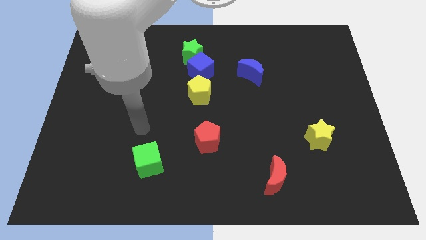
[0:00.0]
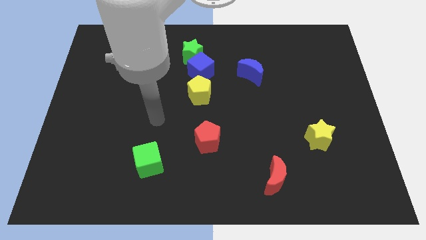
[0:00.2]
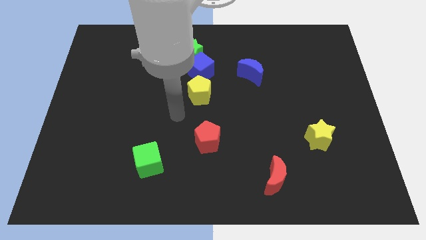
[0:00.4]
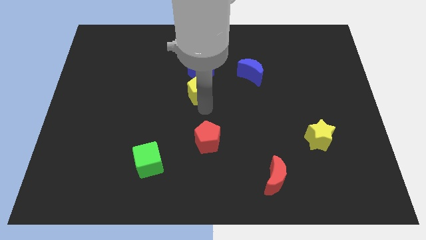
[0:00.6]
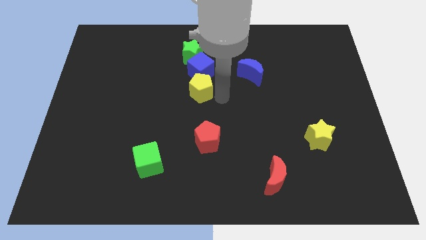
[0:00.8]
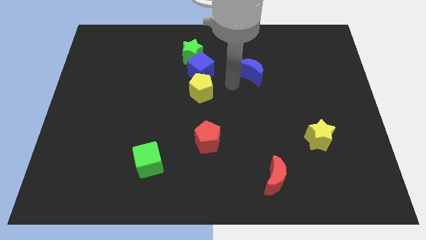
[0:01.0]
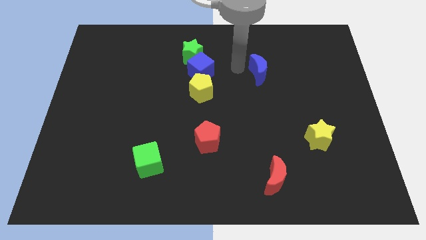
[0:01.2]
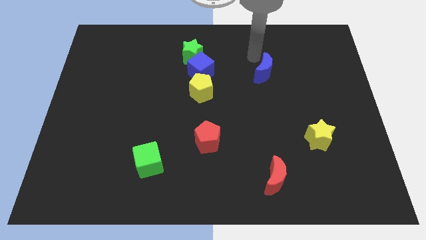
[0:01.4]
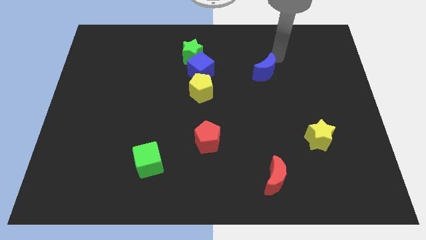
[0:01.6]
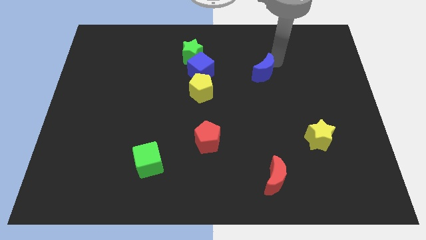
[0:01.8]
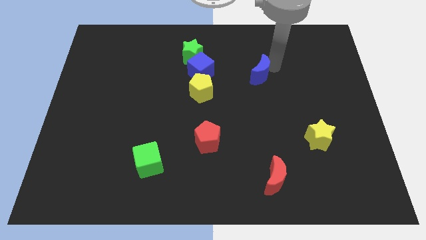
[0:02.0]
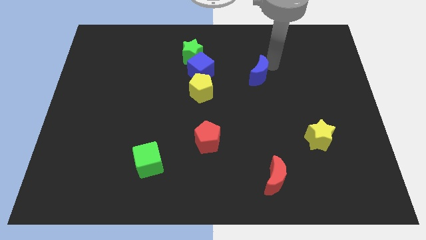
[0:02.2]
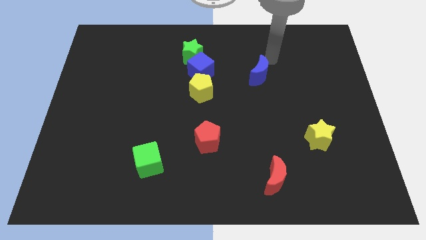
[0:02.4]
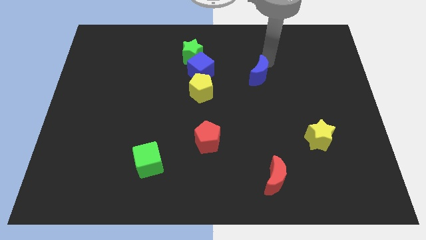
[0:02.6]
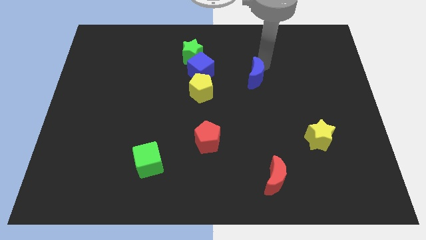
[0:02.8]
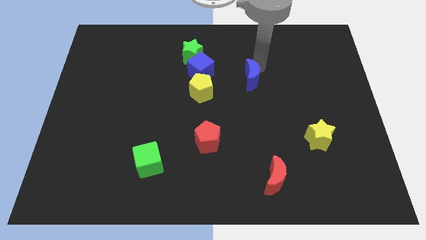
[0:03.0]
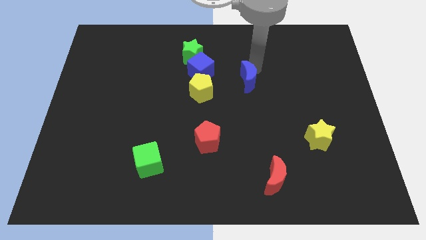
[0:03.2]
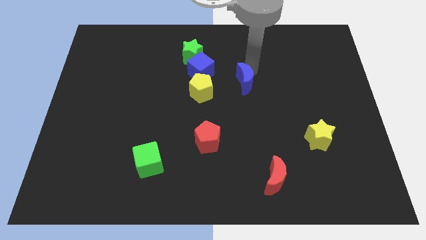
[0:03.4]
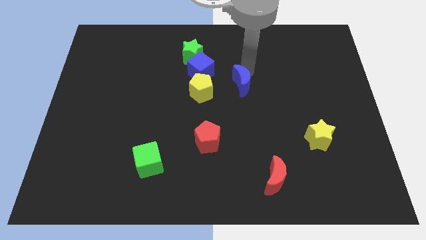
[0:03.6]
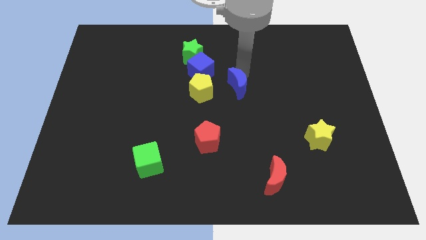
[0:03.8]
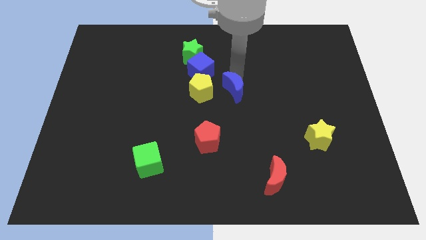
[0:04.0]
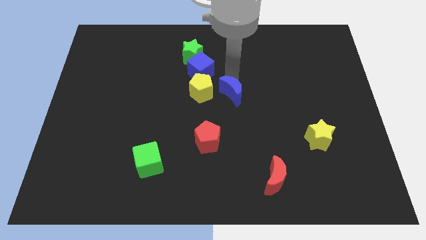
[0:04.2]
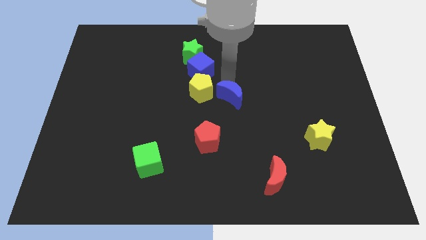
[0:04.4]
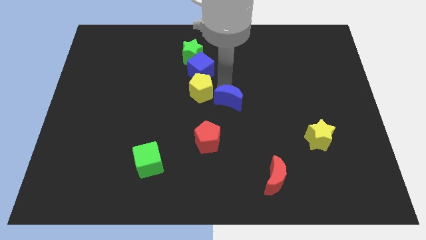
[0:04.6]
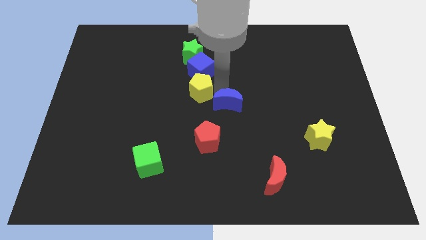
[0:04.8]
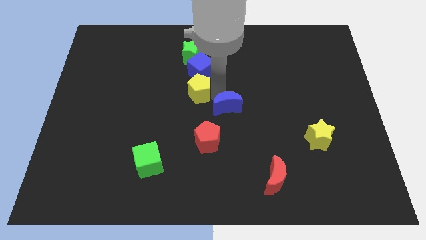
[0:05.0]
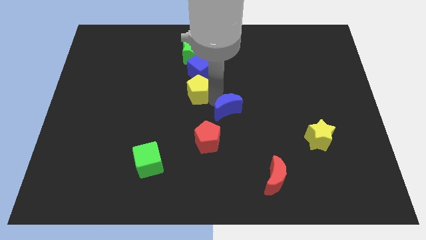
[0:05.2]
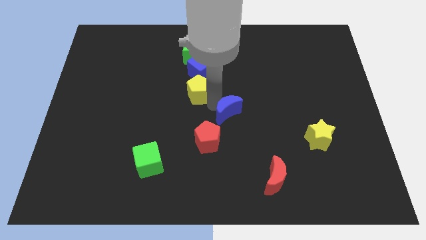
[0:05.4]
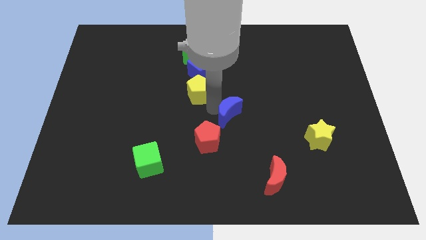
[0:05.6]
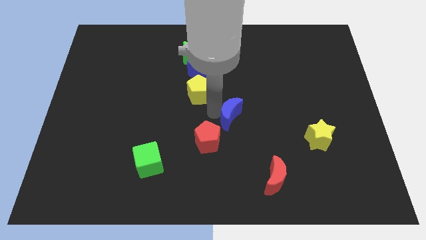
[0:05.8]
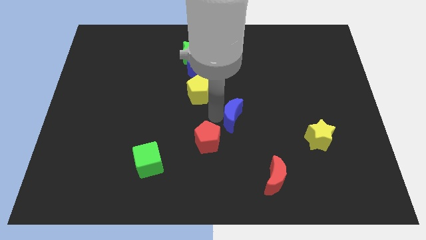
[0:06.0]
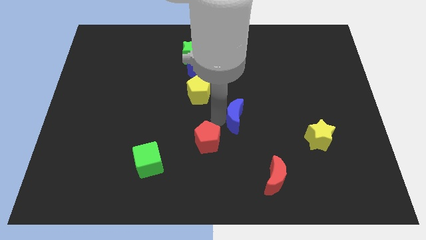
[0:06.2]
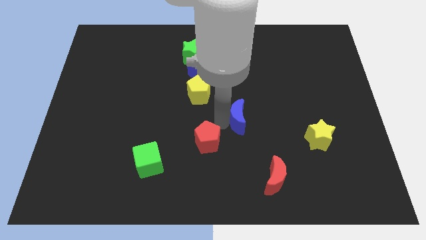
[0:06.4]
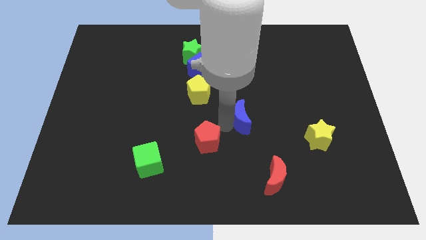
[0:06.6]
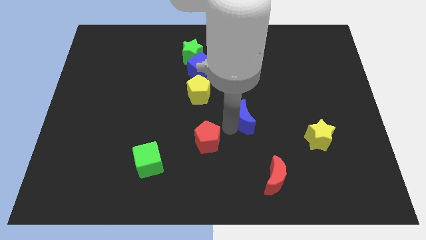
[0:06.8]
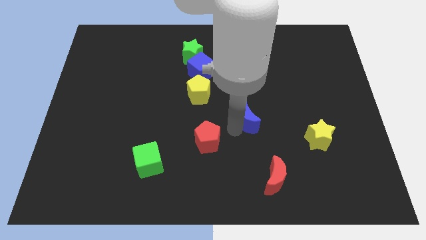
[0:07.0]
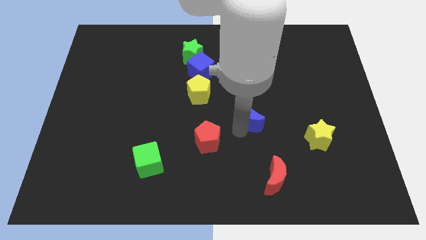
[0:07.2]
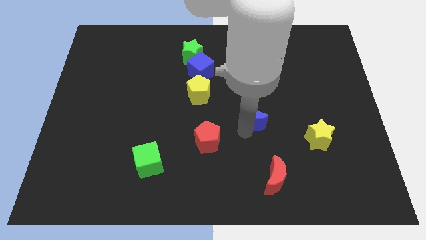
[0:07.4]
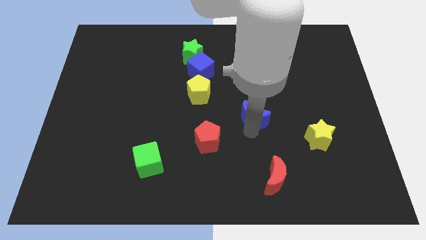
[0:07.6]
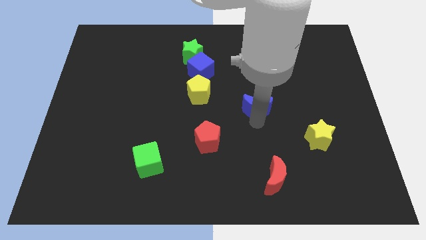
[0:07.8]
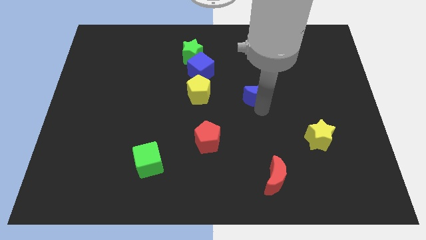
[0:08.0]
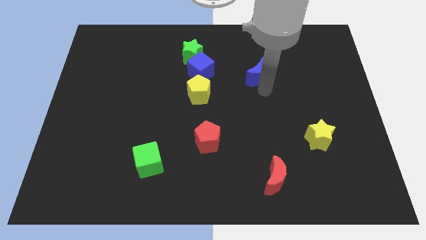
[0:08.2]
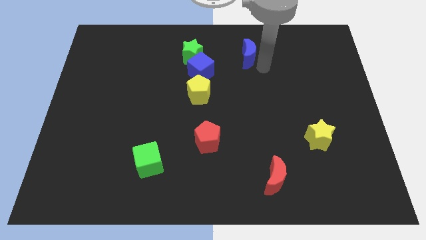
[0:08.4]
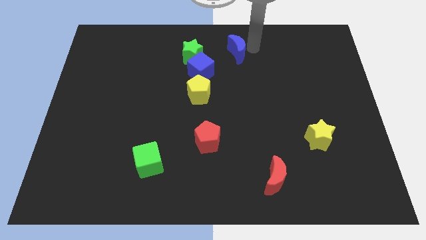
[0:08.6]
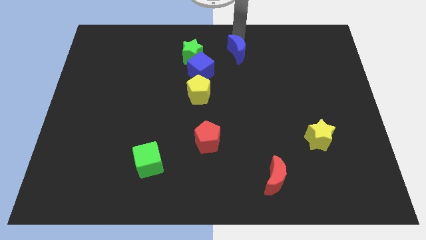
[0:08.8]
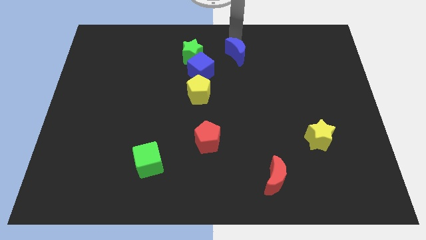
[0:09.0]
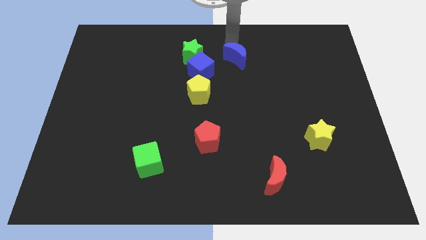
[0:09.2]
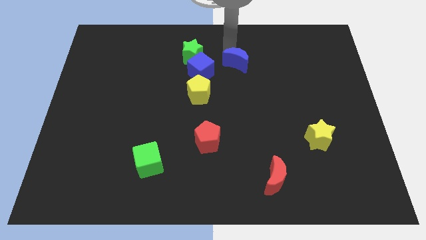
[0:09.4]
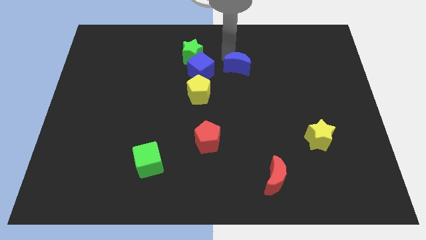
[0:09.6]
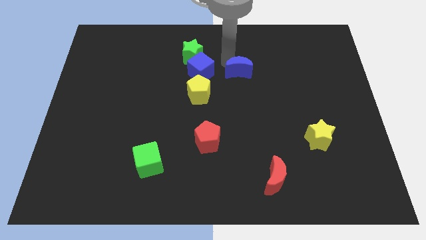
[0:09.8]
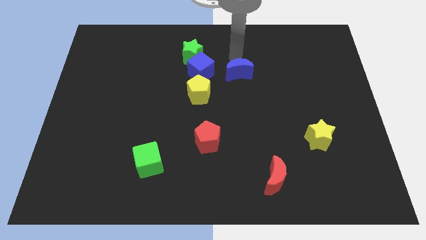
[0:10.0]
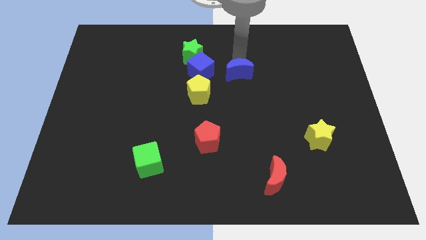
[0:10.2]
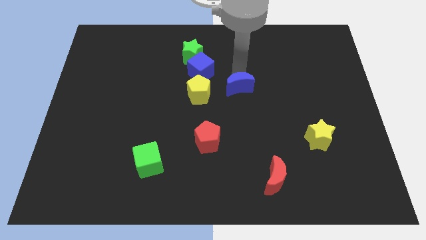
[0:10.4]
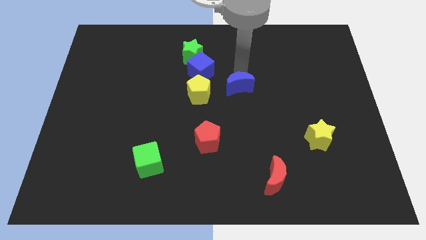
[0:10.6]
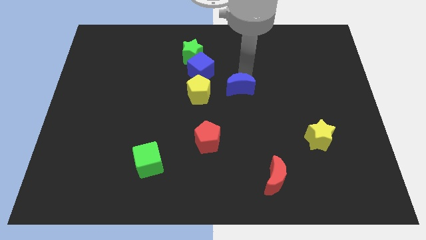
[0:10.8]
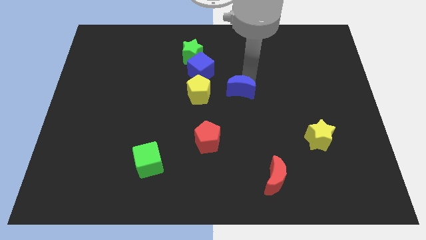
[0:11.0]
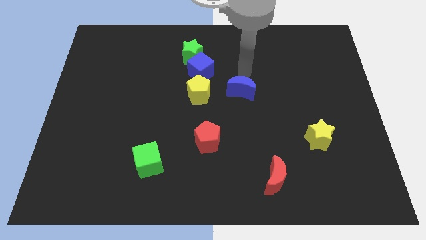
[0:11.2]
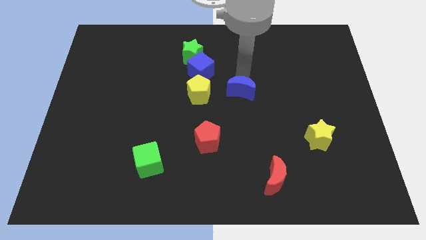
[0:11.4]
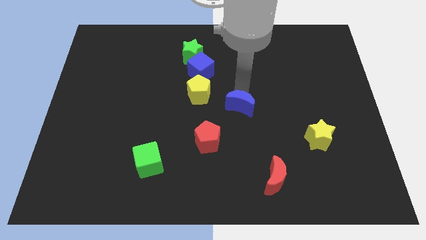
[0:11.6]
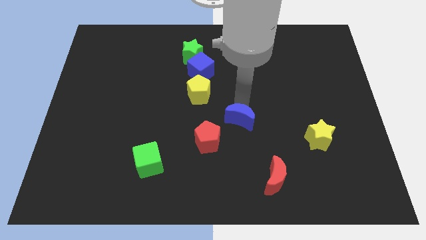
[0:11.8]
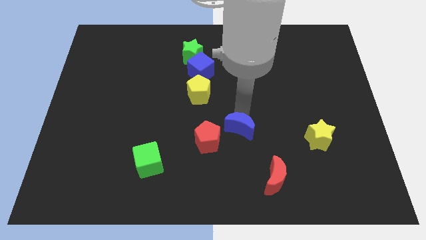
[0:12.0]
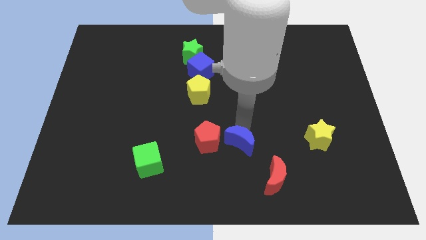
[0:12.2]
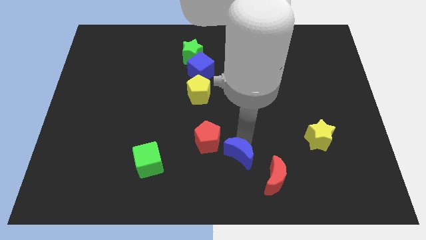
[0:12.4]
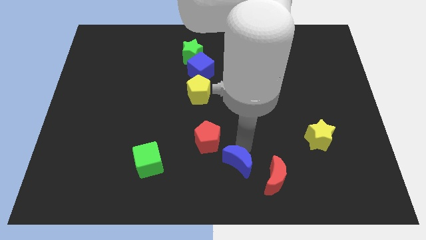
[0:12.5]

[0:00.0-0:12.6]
push the blue moon to the left of the red moon
